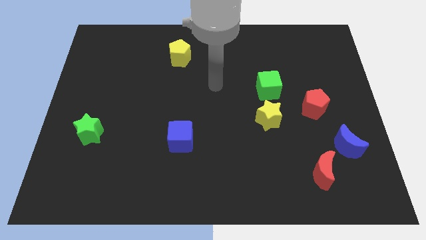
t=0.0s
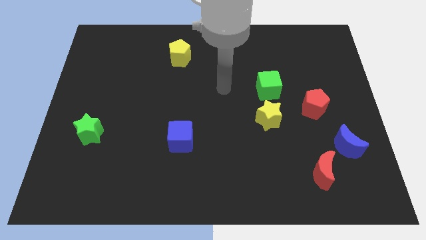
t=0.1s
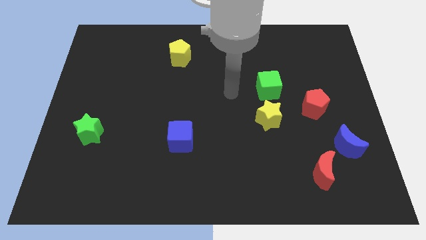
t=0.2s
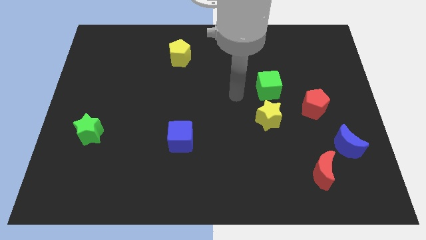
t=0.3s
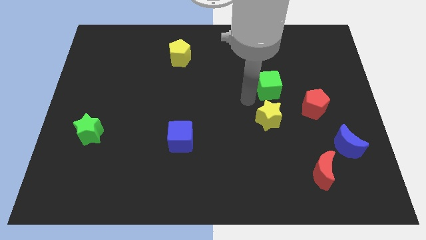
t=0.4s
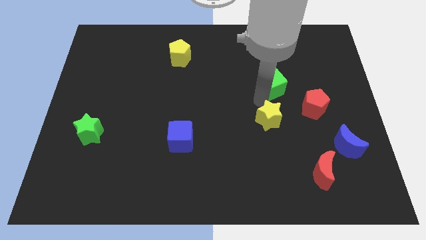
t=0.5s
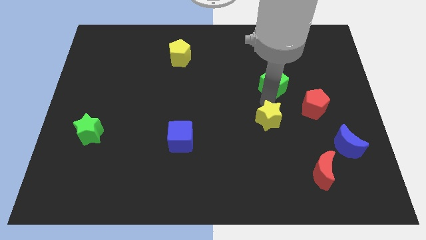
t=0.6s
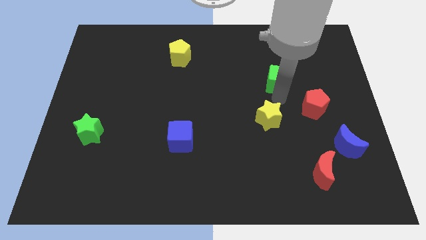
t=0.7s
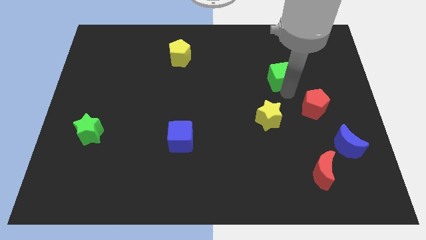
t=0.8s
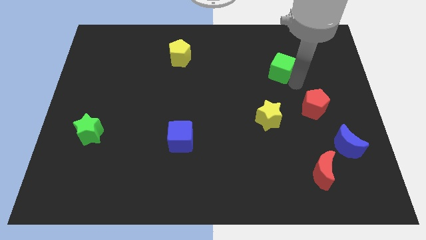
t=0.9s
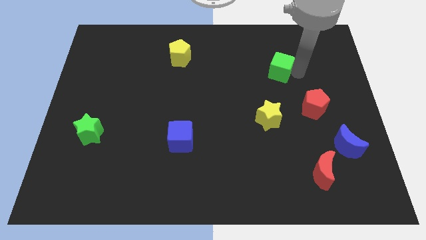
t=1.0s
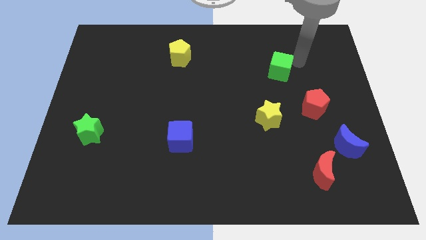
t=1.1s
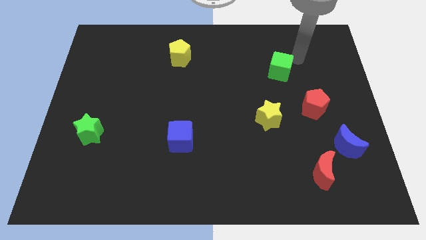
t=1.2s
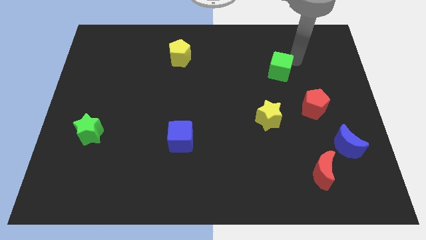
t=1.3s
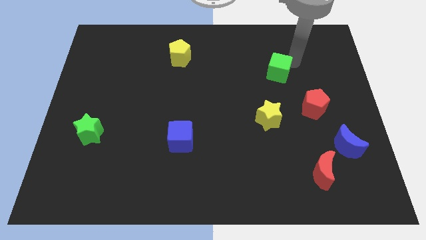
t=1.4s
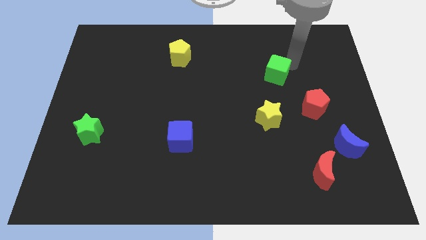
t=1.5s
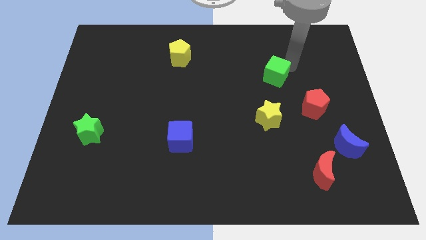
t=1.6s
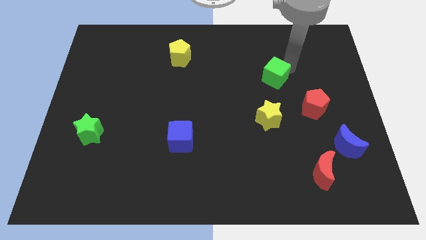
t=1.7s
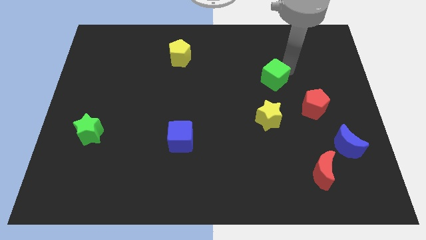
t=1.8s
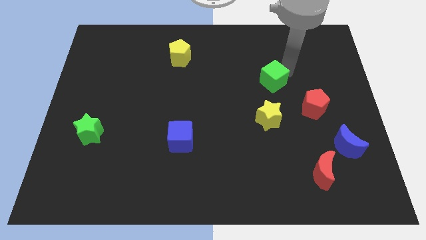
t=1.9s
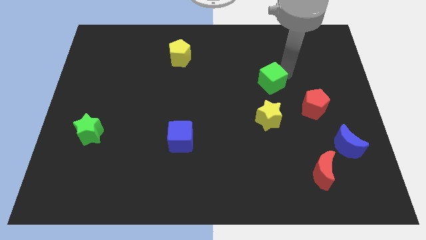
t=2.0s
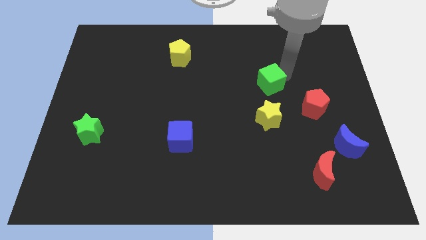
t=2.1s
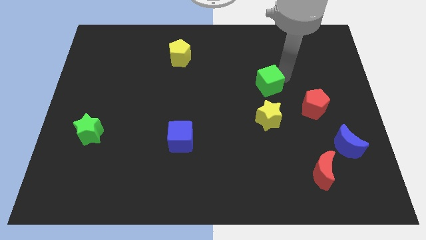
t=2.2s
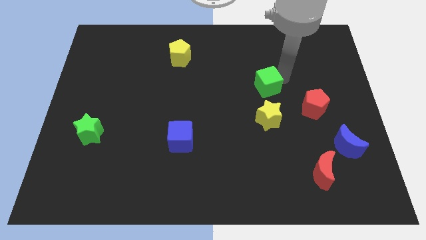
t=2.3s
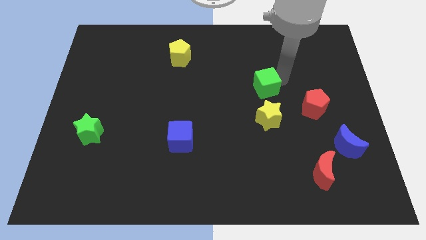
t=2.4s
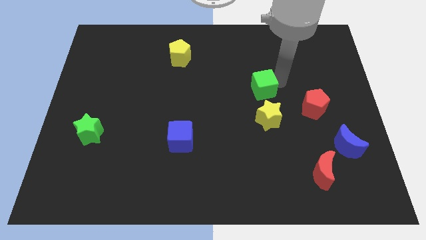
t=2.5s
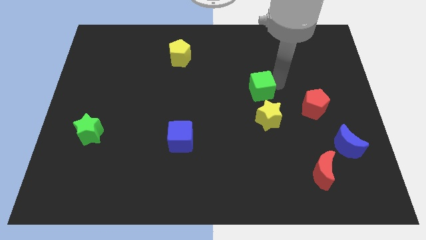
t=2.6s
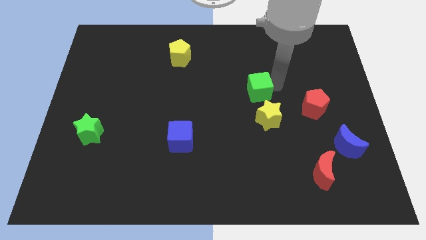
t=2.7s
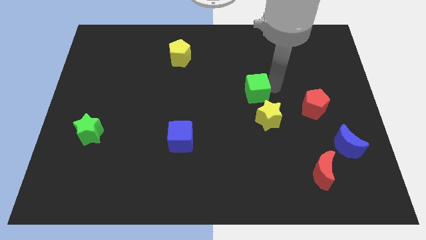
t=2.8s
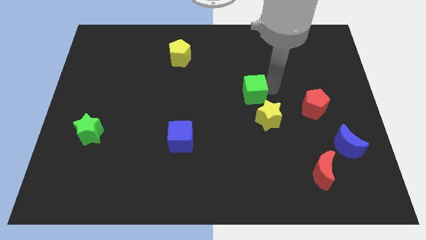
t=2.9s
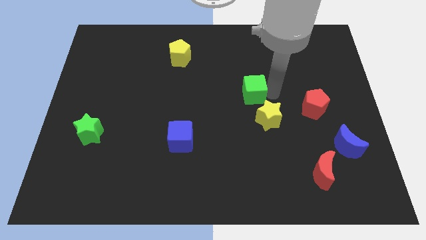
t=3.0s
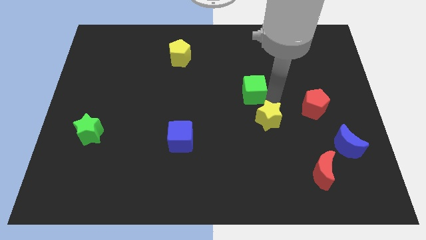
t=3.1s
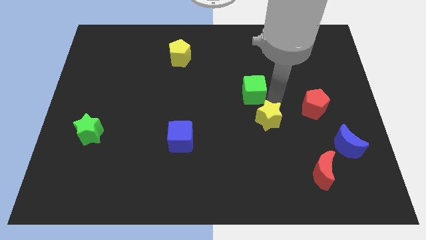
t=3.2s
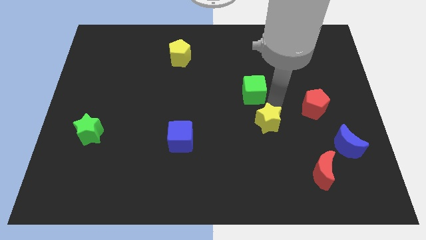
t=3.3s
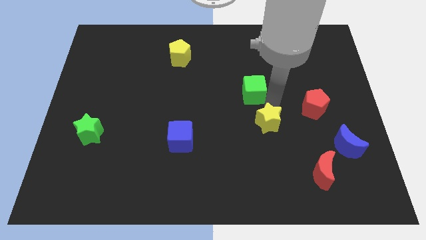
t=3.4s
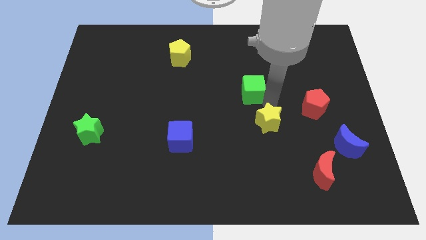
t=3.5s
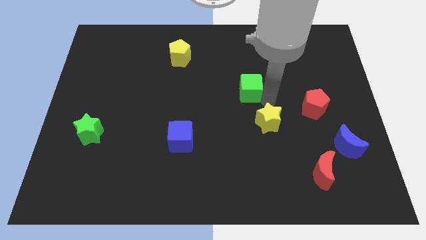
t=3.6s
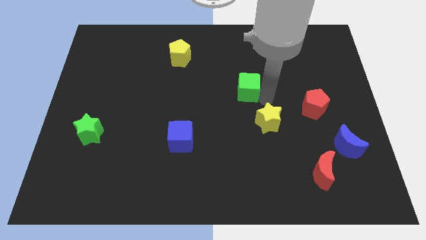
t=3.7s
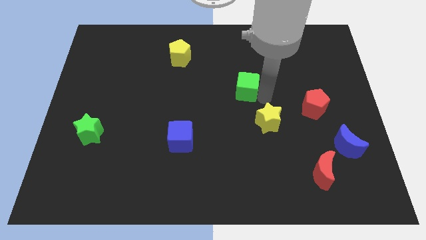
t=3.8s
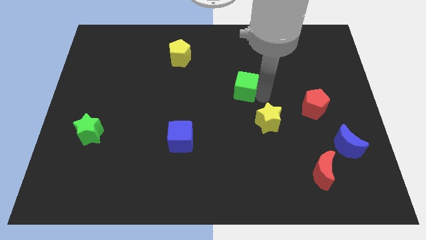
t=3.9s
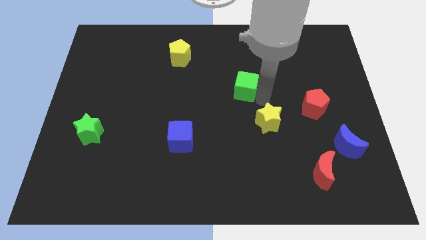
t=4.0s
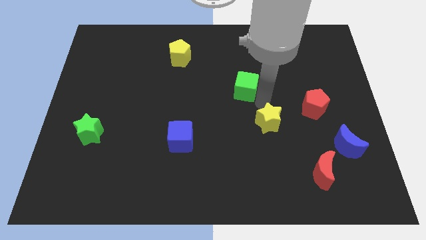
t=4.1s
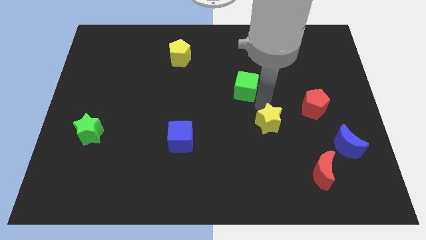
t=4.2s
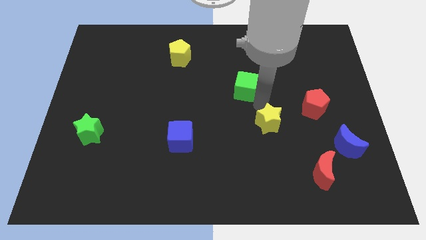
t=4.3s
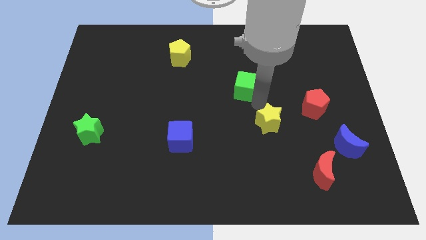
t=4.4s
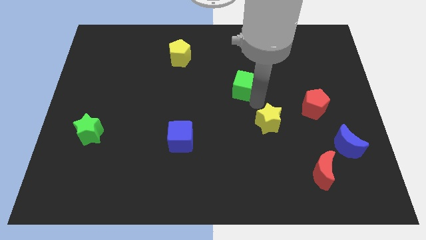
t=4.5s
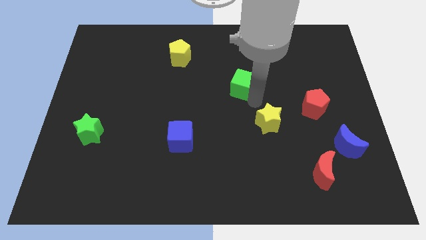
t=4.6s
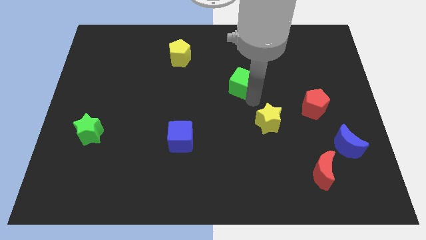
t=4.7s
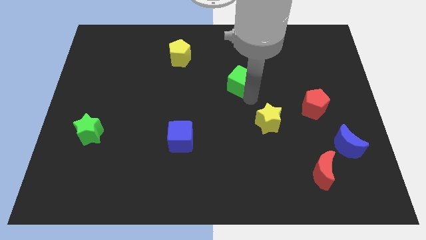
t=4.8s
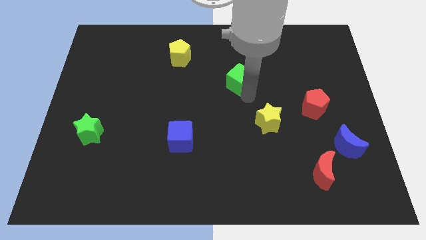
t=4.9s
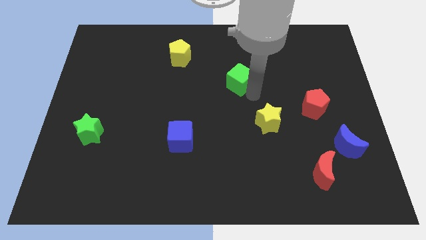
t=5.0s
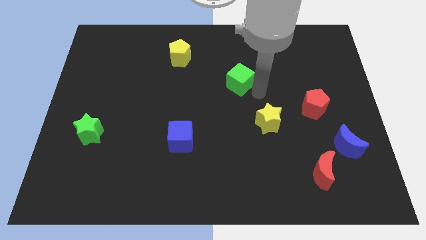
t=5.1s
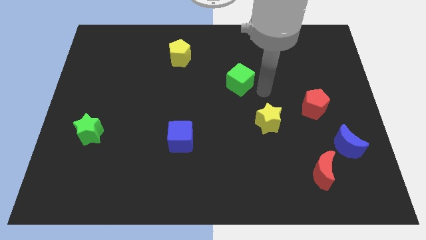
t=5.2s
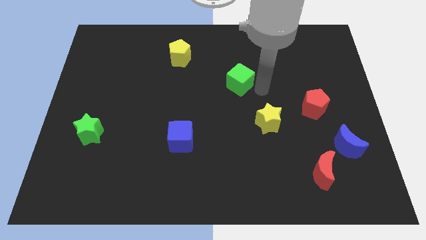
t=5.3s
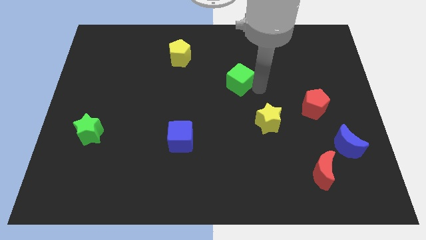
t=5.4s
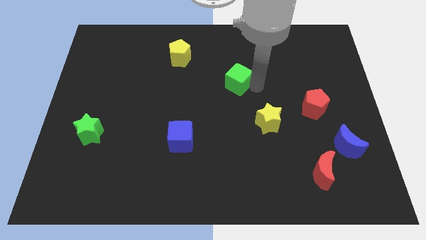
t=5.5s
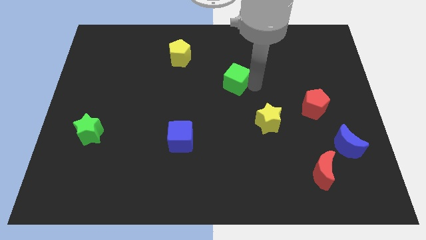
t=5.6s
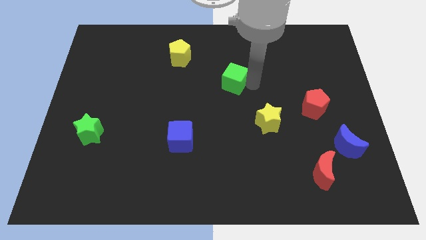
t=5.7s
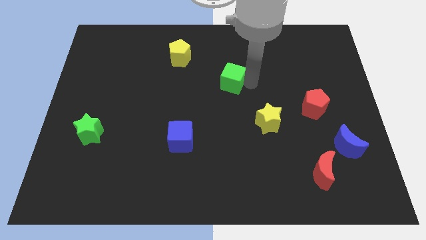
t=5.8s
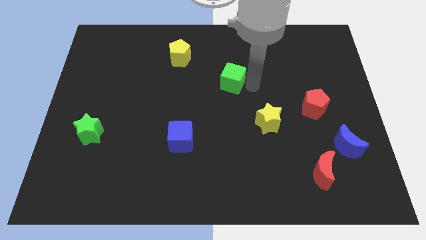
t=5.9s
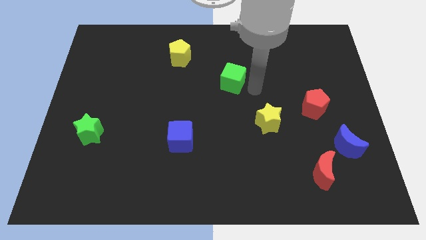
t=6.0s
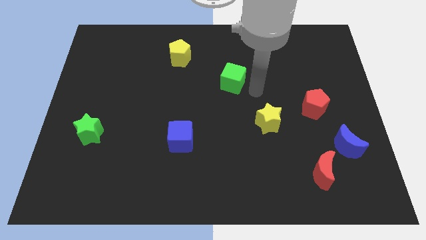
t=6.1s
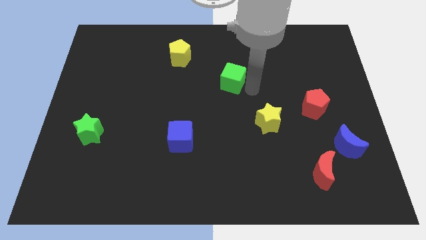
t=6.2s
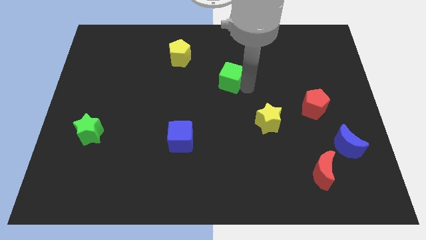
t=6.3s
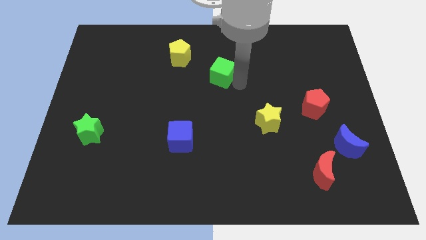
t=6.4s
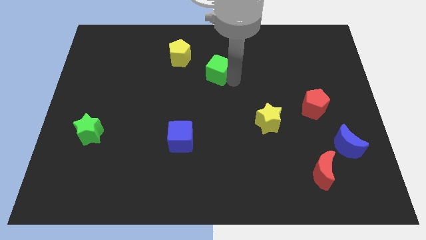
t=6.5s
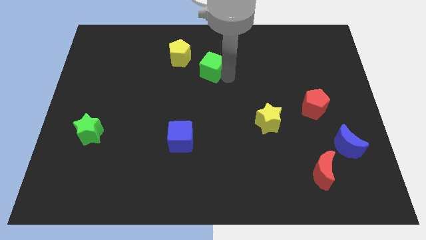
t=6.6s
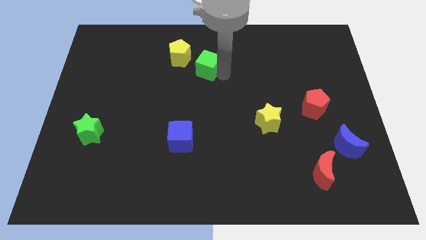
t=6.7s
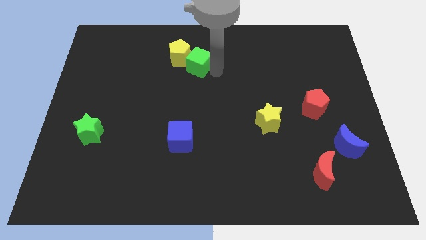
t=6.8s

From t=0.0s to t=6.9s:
push the green cube to the yellow pentagon
